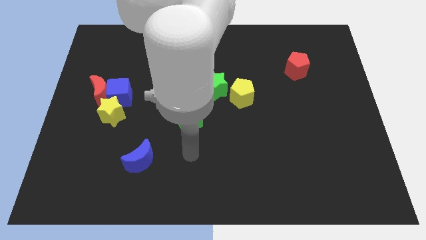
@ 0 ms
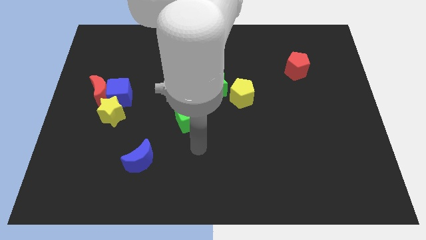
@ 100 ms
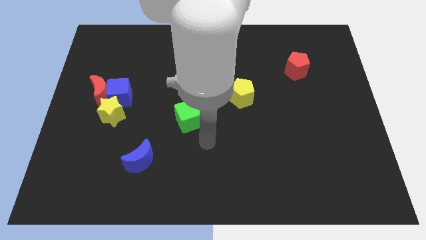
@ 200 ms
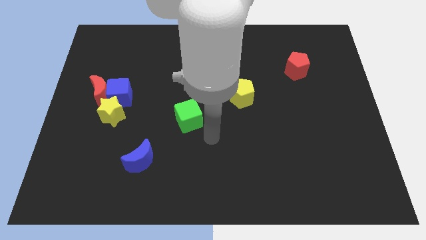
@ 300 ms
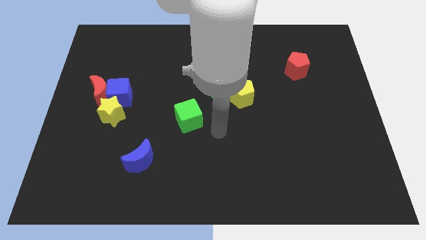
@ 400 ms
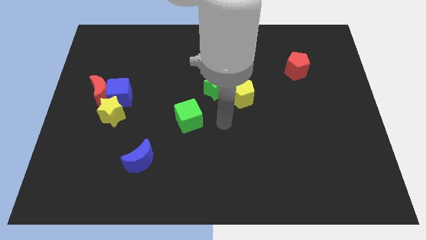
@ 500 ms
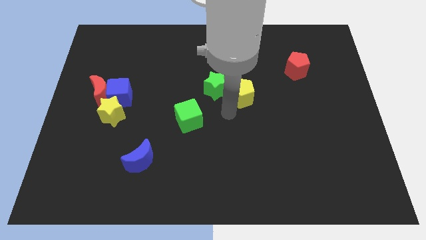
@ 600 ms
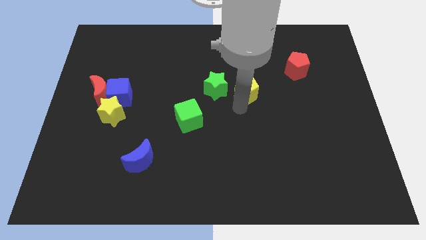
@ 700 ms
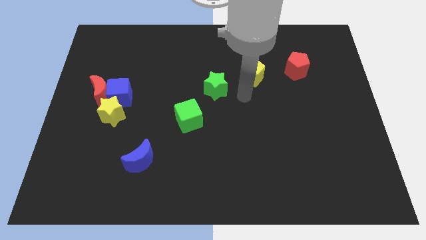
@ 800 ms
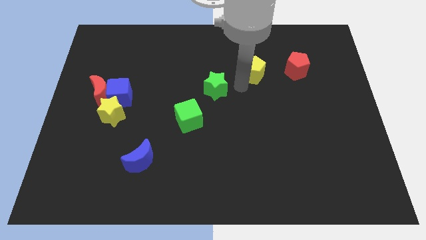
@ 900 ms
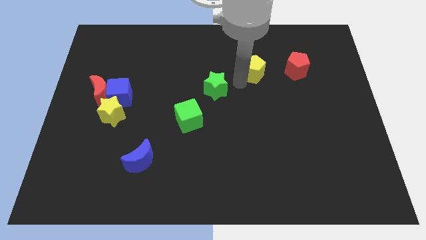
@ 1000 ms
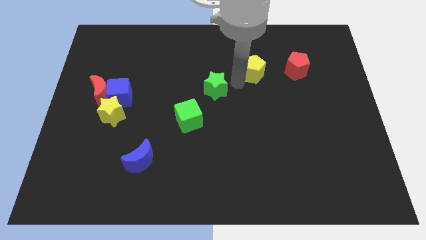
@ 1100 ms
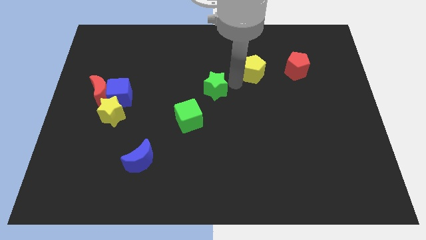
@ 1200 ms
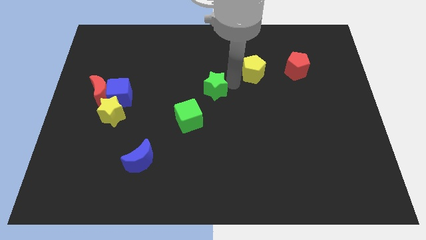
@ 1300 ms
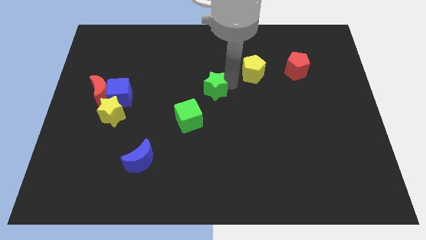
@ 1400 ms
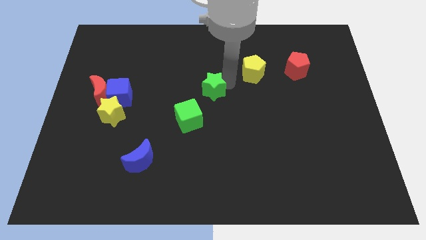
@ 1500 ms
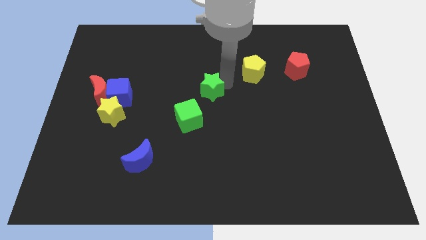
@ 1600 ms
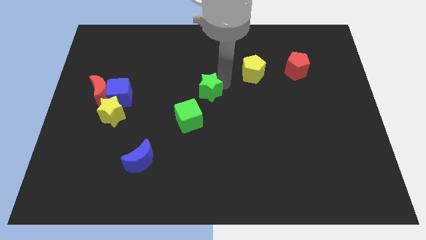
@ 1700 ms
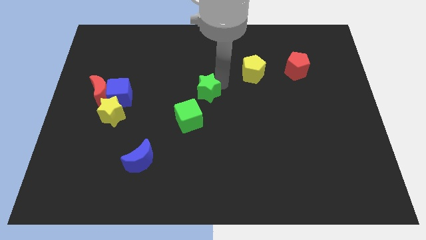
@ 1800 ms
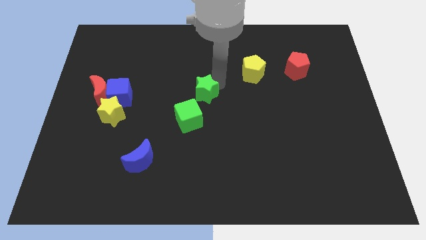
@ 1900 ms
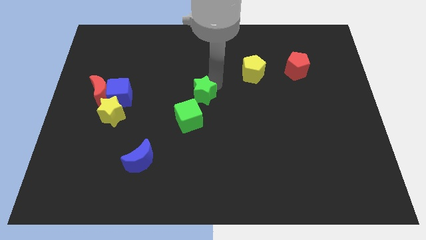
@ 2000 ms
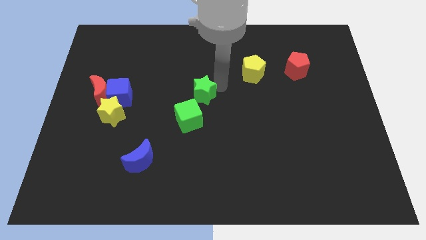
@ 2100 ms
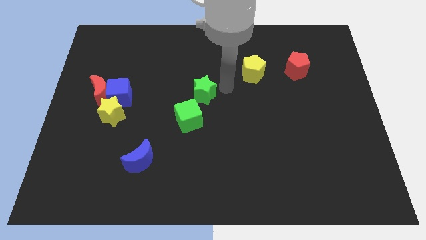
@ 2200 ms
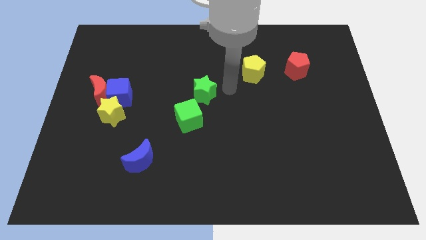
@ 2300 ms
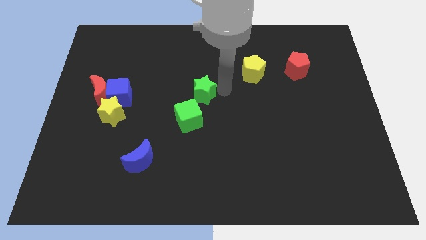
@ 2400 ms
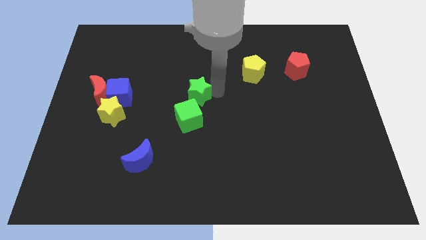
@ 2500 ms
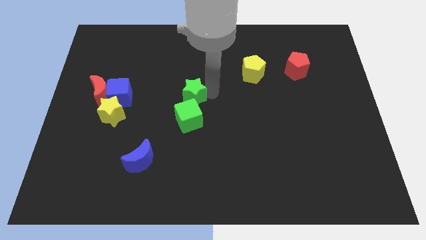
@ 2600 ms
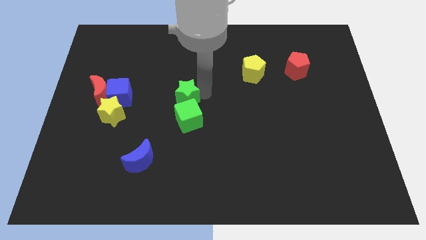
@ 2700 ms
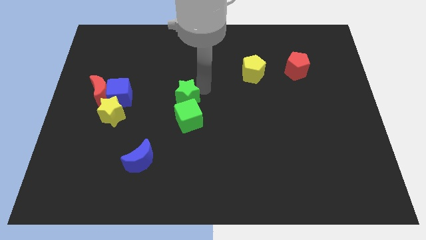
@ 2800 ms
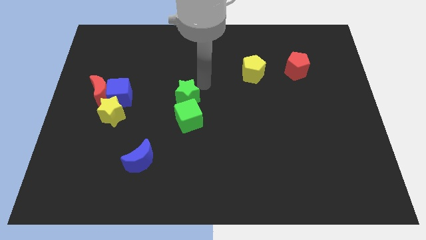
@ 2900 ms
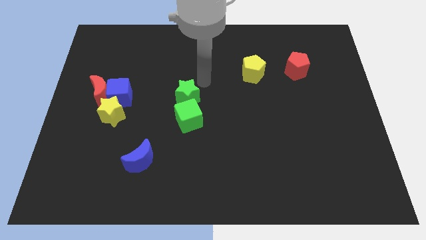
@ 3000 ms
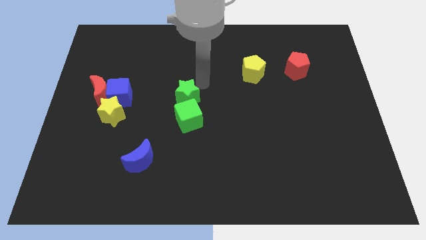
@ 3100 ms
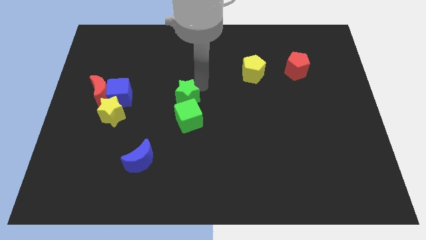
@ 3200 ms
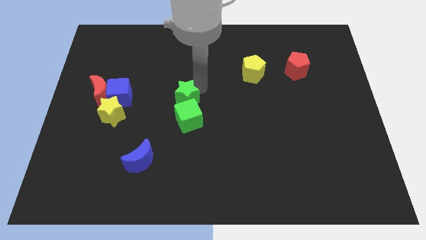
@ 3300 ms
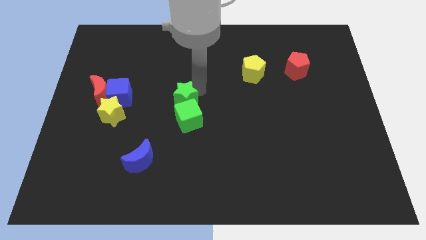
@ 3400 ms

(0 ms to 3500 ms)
slightly push the green star down and left

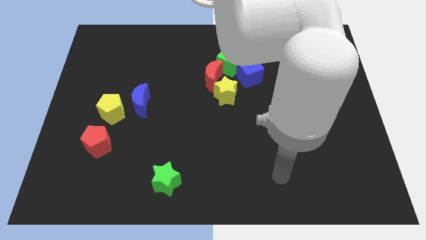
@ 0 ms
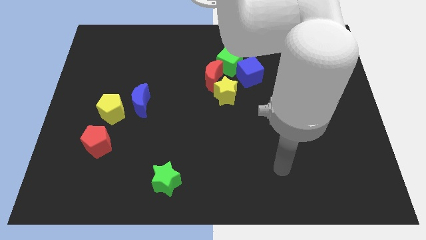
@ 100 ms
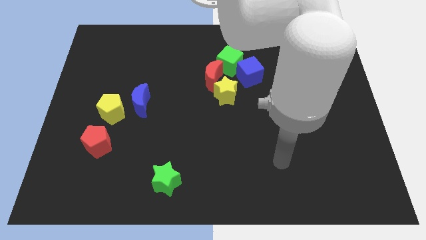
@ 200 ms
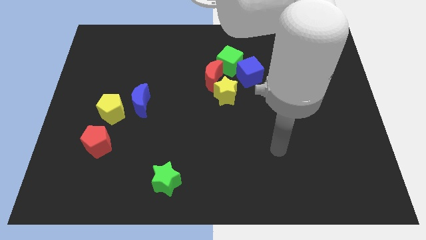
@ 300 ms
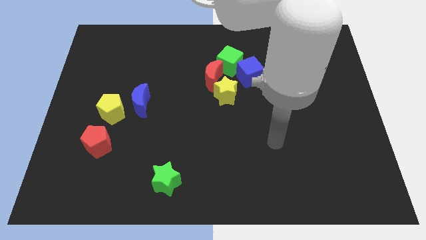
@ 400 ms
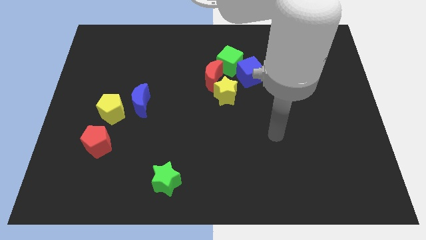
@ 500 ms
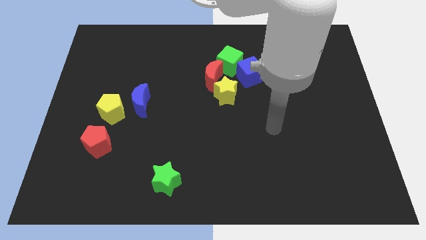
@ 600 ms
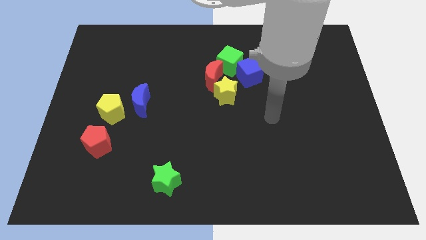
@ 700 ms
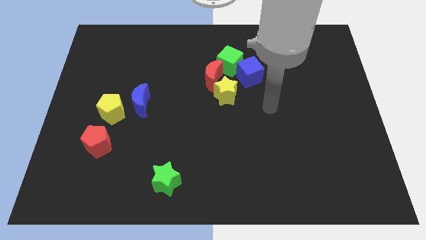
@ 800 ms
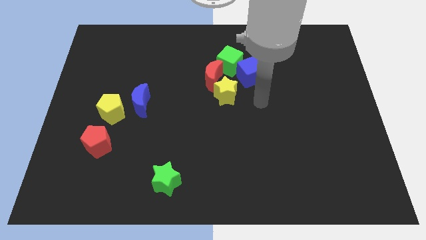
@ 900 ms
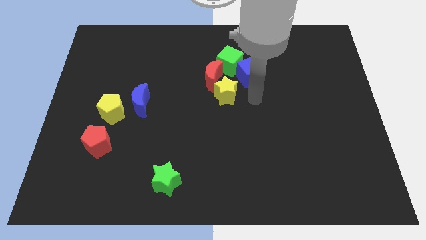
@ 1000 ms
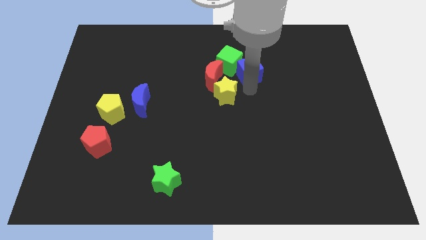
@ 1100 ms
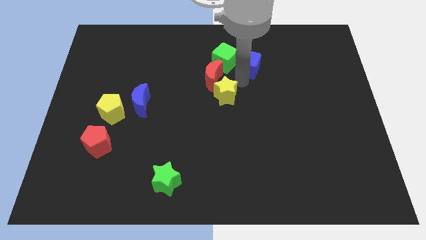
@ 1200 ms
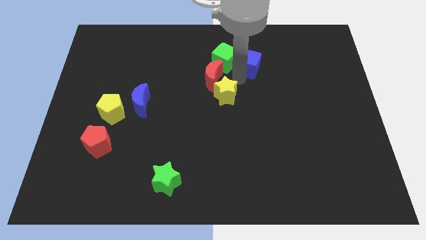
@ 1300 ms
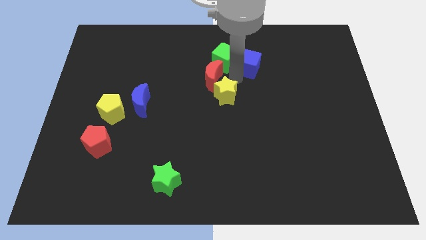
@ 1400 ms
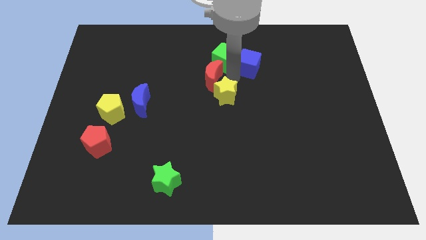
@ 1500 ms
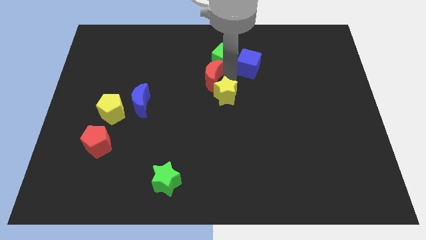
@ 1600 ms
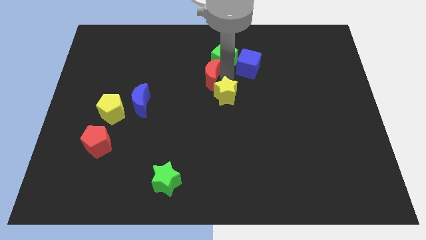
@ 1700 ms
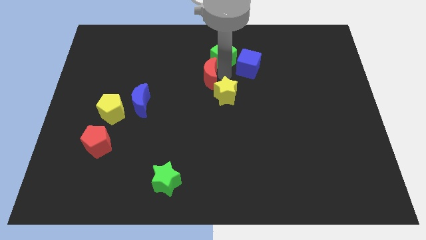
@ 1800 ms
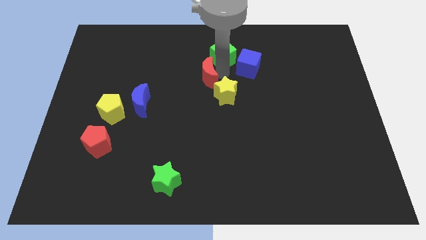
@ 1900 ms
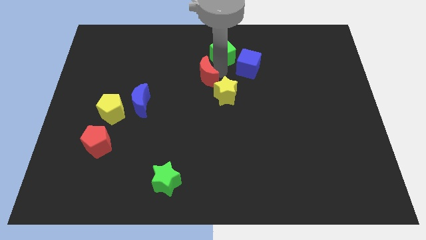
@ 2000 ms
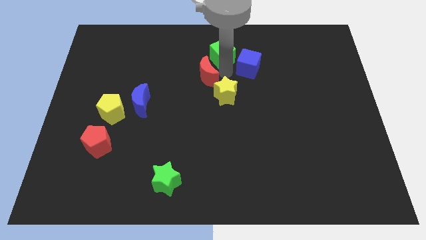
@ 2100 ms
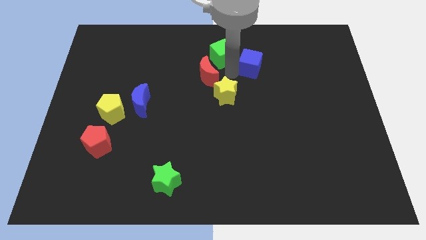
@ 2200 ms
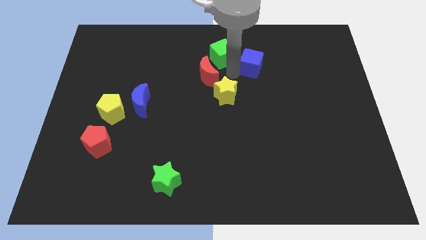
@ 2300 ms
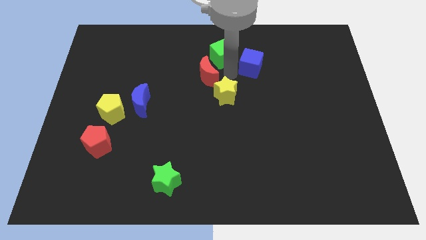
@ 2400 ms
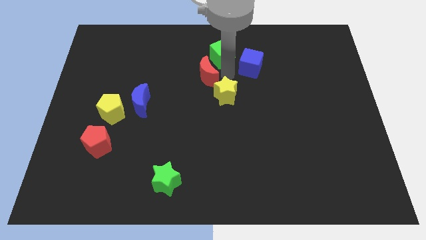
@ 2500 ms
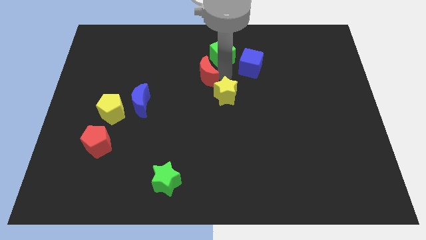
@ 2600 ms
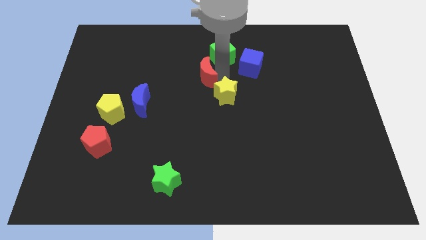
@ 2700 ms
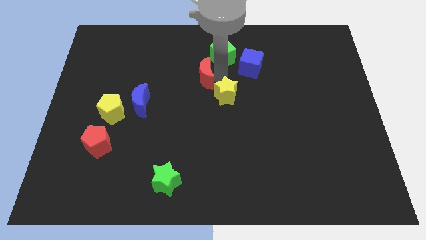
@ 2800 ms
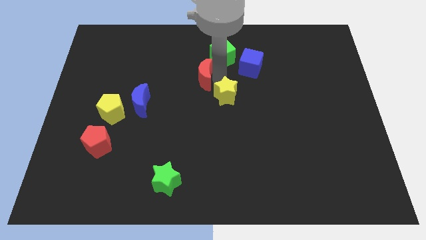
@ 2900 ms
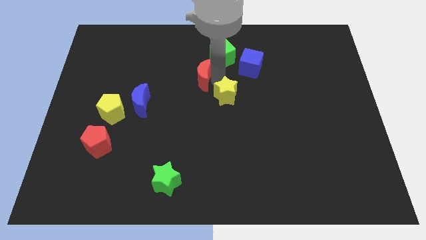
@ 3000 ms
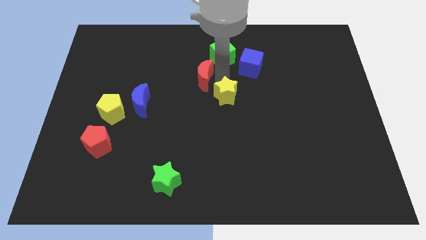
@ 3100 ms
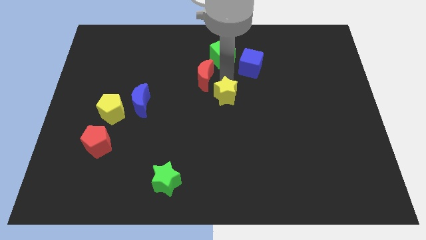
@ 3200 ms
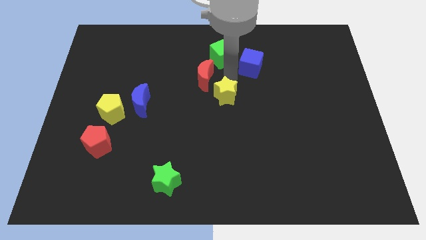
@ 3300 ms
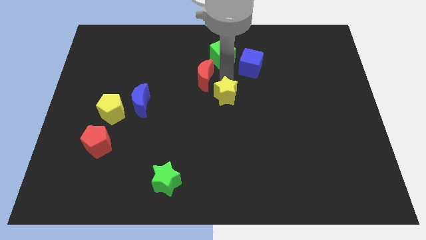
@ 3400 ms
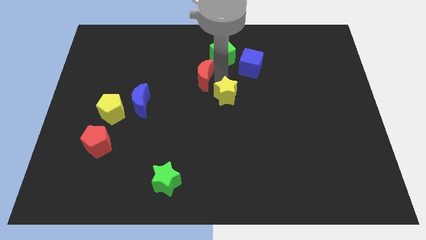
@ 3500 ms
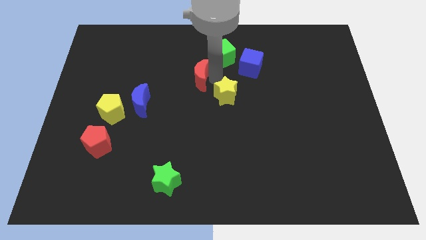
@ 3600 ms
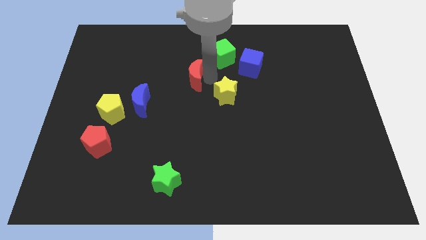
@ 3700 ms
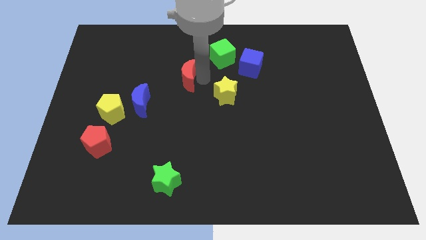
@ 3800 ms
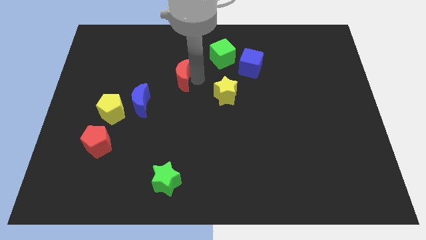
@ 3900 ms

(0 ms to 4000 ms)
move the red moon left a little bit

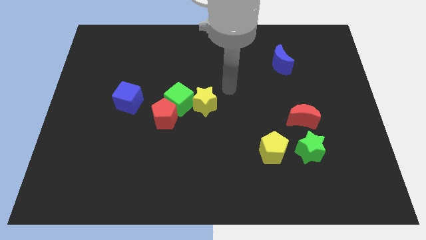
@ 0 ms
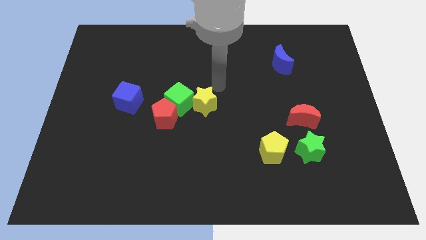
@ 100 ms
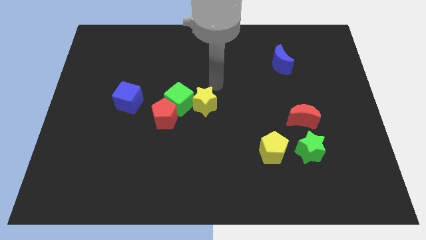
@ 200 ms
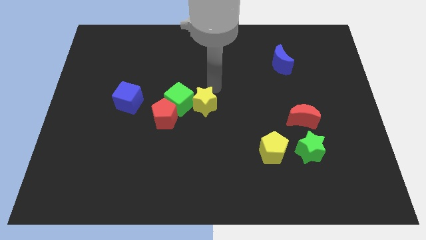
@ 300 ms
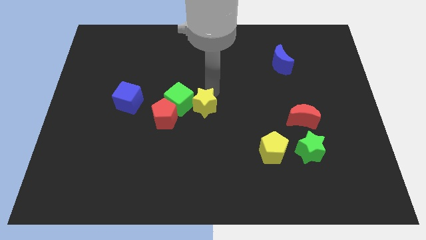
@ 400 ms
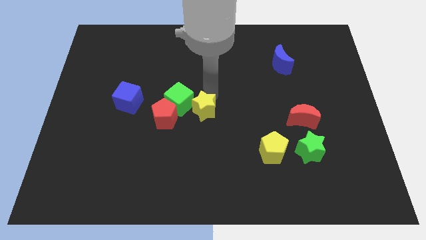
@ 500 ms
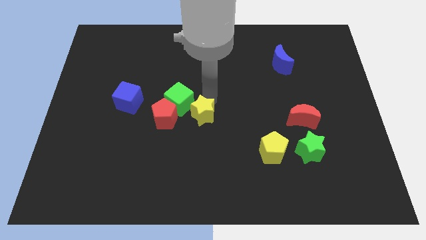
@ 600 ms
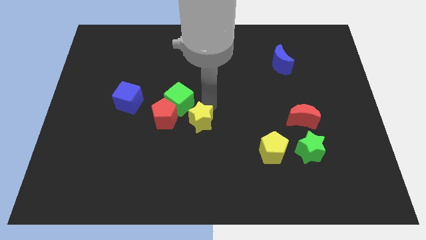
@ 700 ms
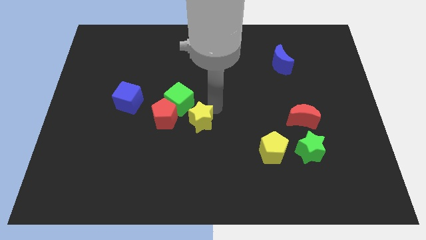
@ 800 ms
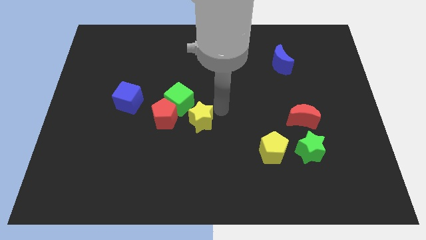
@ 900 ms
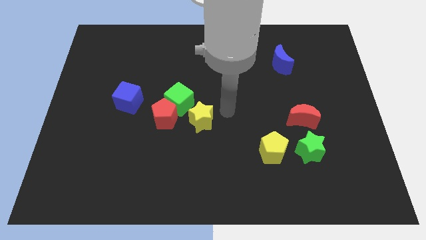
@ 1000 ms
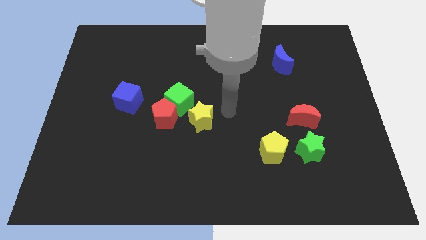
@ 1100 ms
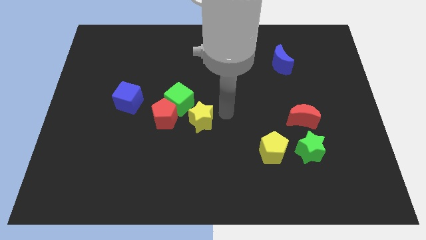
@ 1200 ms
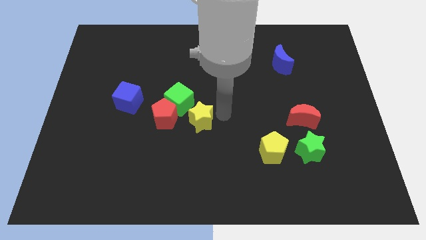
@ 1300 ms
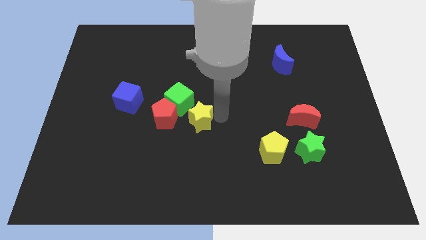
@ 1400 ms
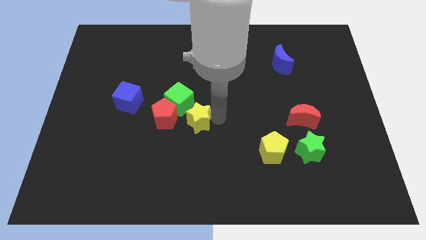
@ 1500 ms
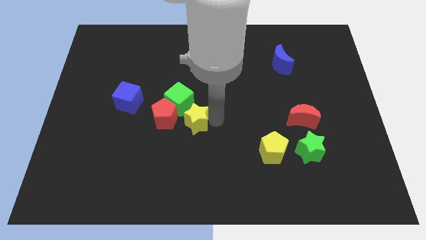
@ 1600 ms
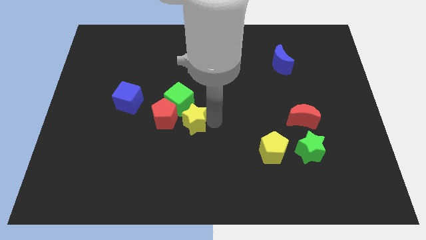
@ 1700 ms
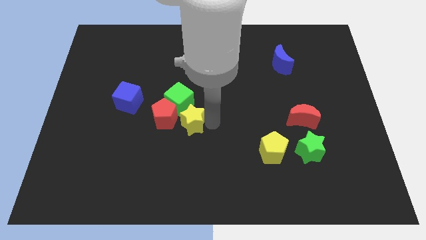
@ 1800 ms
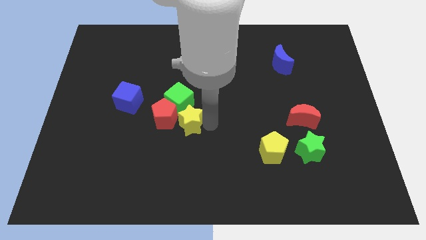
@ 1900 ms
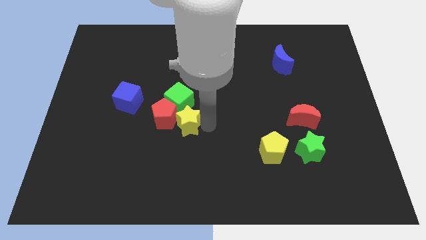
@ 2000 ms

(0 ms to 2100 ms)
slide the yellow star down and left diagonally somewhat
